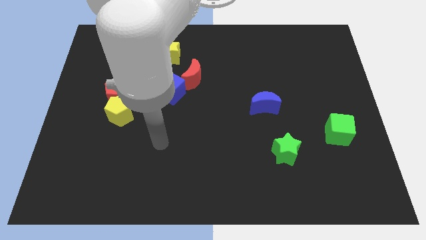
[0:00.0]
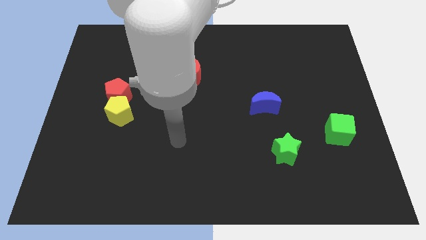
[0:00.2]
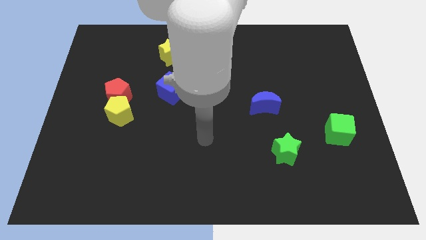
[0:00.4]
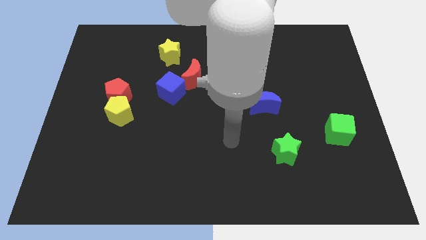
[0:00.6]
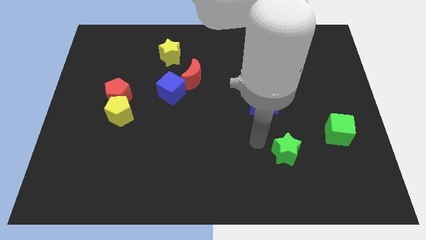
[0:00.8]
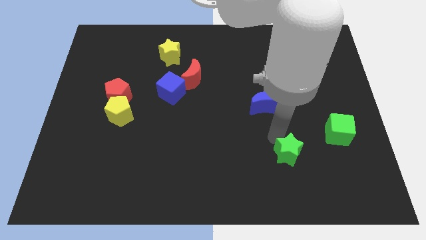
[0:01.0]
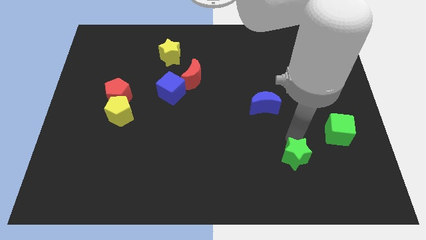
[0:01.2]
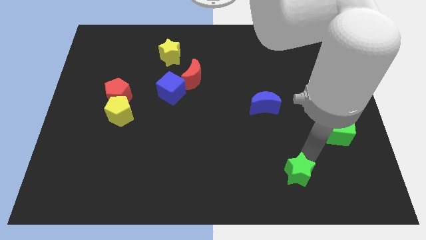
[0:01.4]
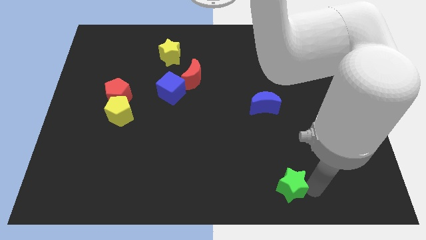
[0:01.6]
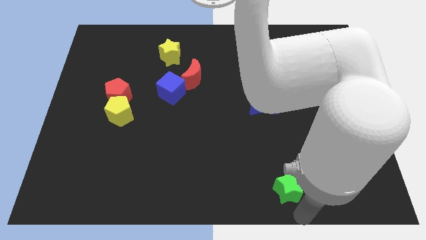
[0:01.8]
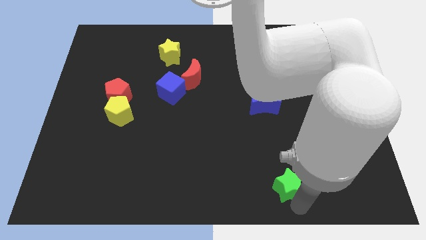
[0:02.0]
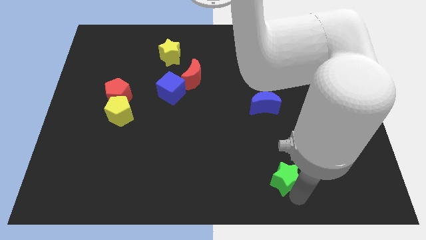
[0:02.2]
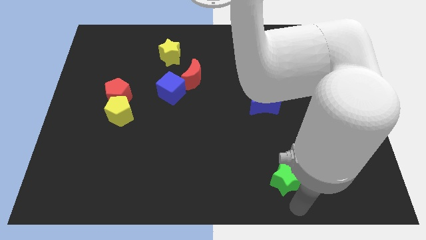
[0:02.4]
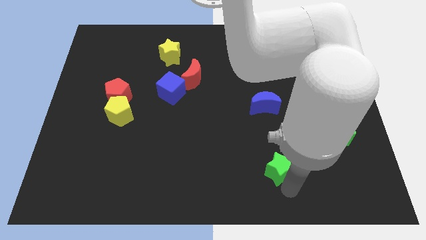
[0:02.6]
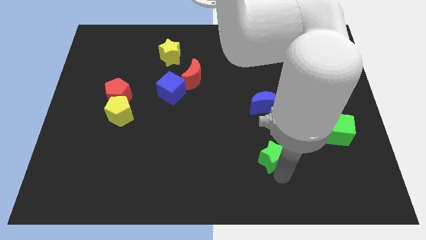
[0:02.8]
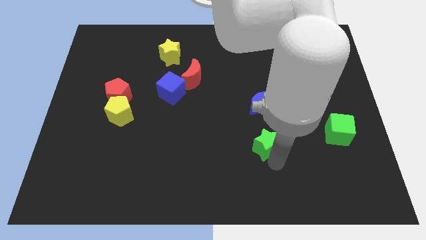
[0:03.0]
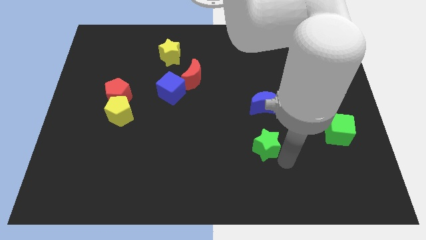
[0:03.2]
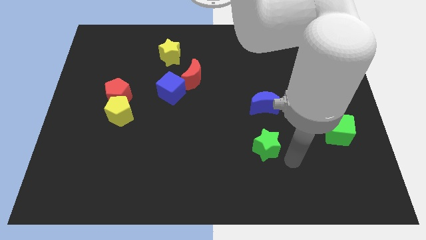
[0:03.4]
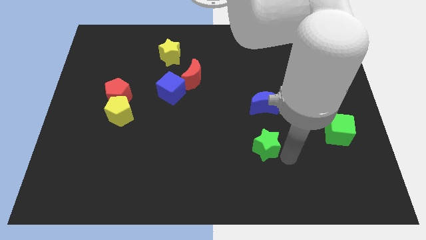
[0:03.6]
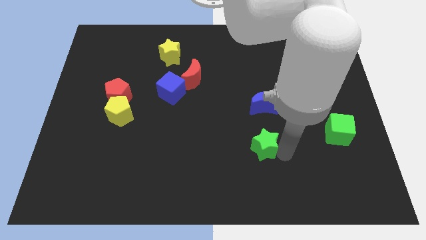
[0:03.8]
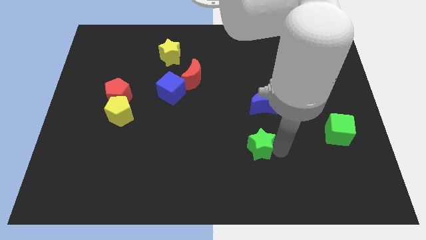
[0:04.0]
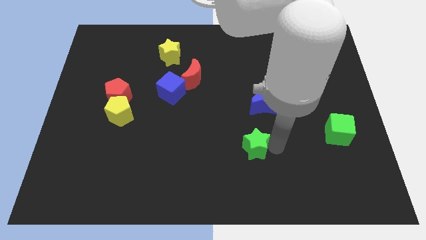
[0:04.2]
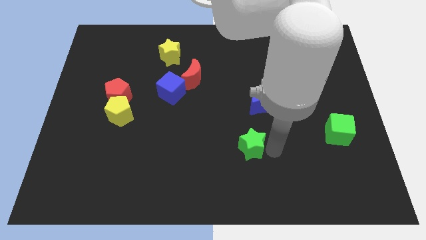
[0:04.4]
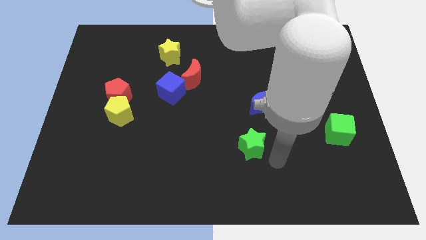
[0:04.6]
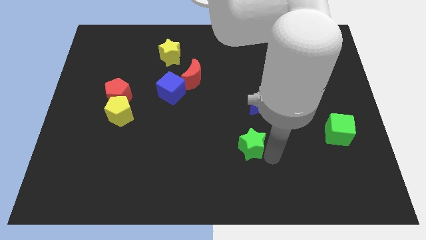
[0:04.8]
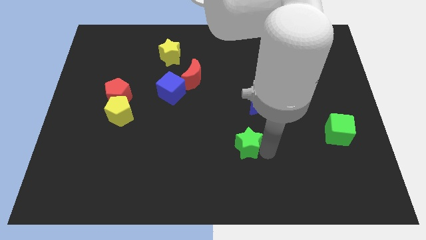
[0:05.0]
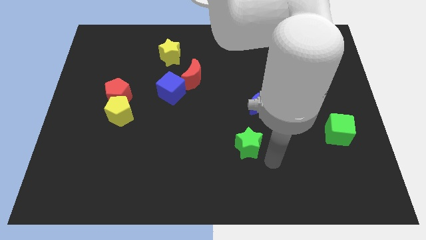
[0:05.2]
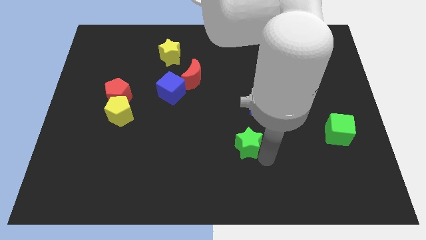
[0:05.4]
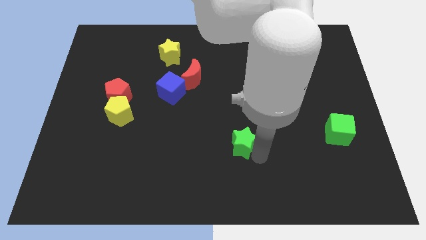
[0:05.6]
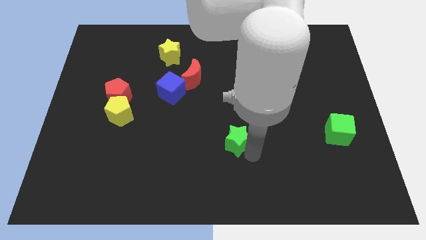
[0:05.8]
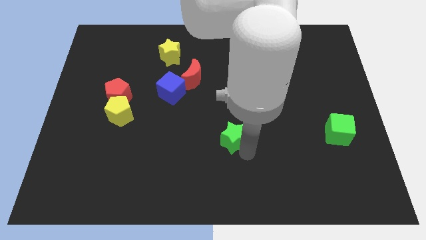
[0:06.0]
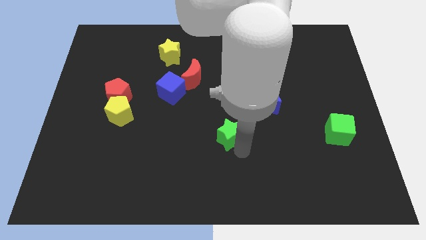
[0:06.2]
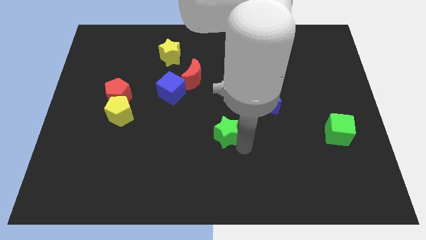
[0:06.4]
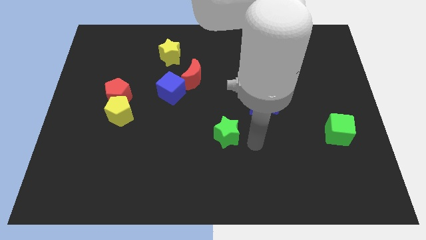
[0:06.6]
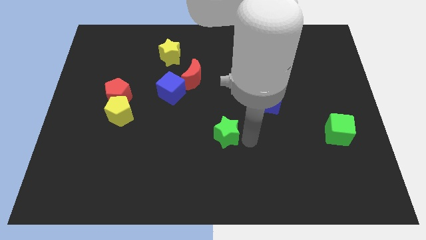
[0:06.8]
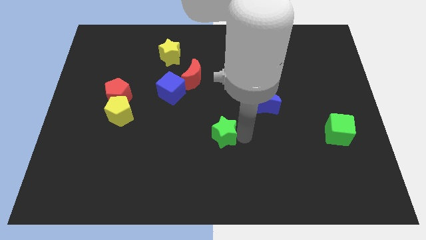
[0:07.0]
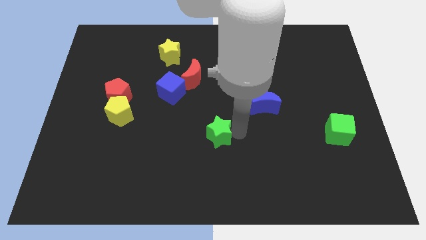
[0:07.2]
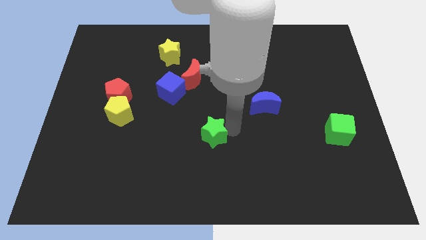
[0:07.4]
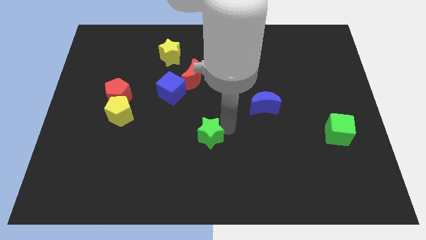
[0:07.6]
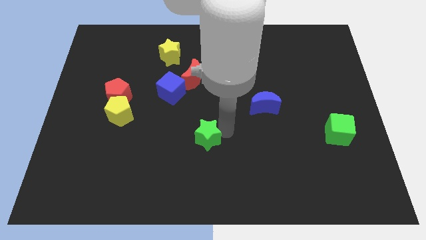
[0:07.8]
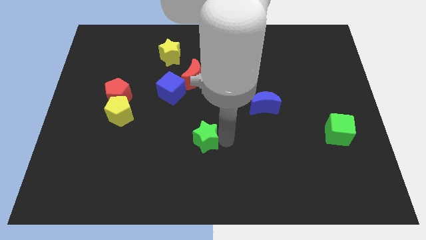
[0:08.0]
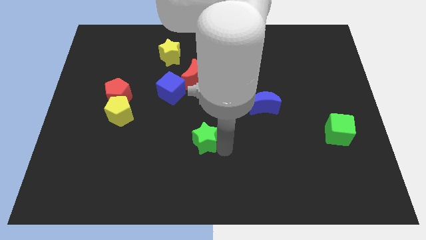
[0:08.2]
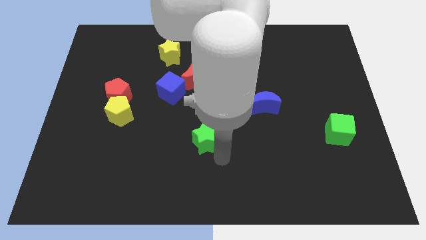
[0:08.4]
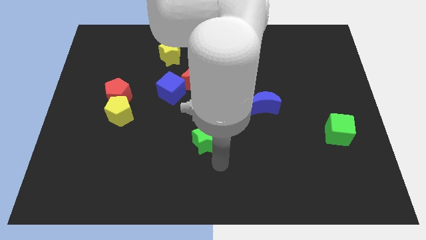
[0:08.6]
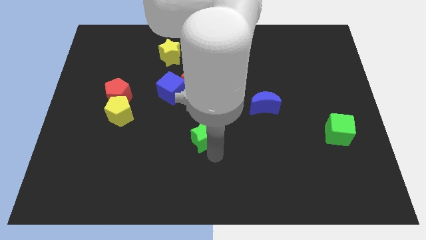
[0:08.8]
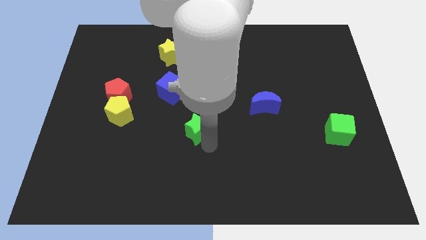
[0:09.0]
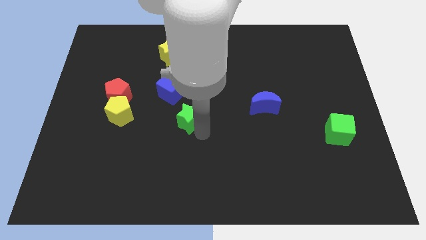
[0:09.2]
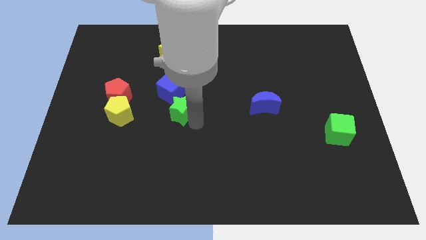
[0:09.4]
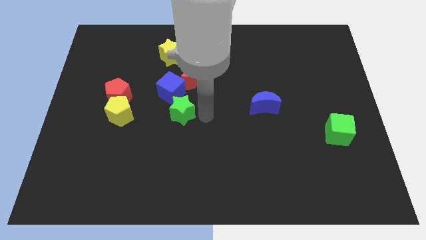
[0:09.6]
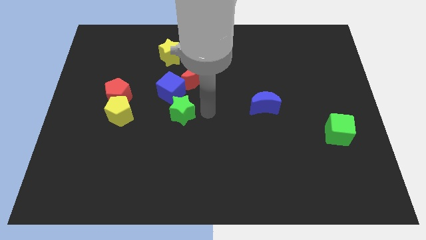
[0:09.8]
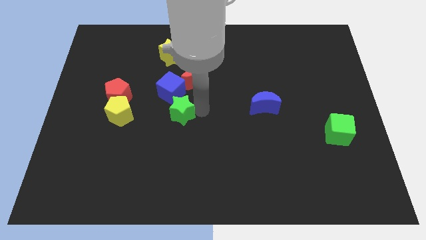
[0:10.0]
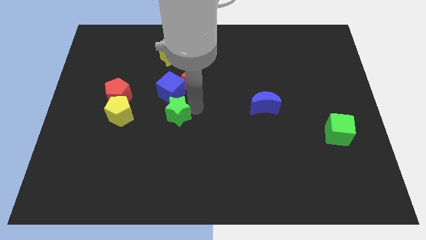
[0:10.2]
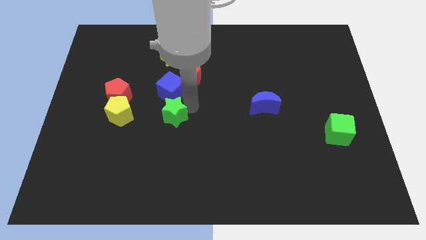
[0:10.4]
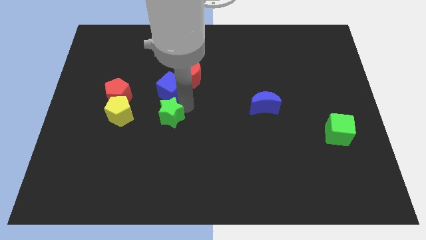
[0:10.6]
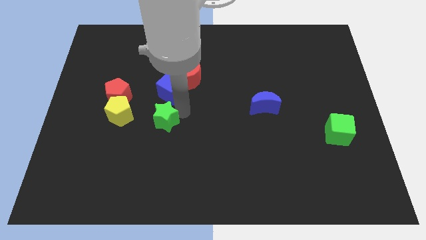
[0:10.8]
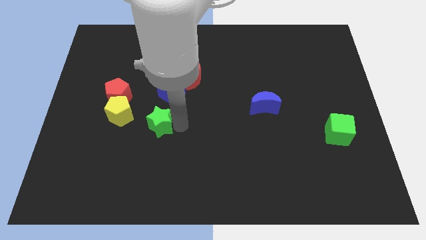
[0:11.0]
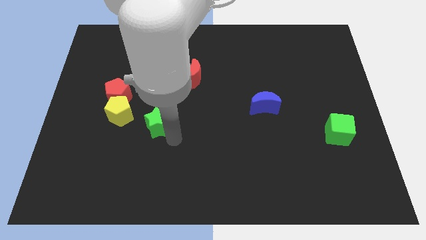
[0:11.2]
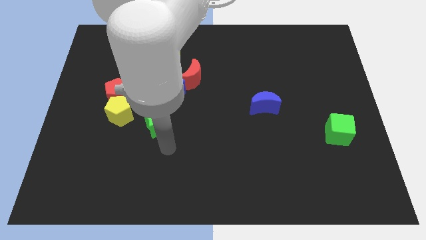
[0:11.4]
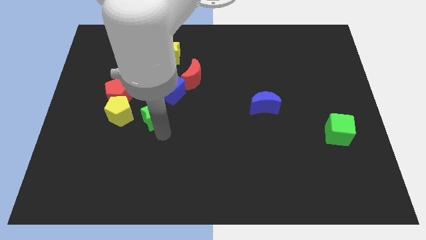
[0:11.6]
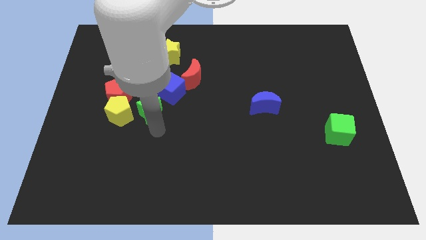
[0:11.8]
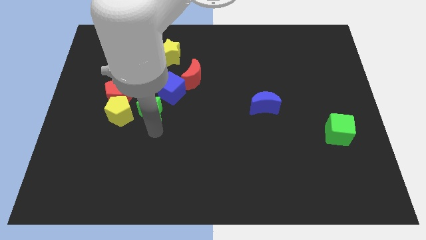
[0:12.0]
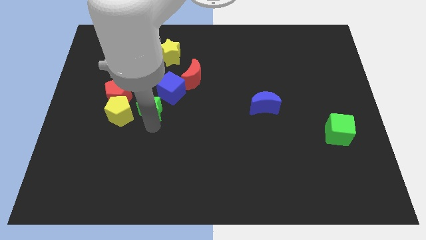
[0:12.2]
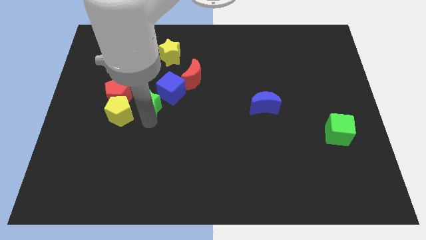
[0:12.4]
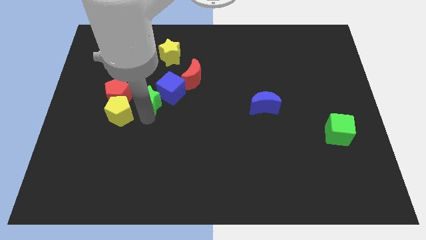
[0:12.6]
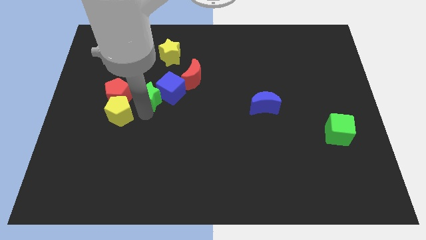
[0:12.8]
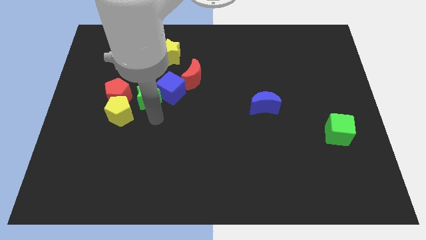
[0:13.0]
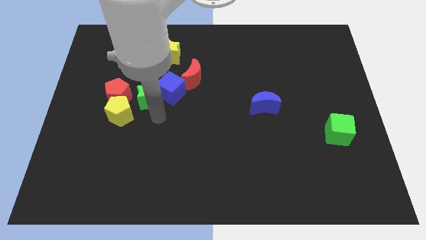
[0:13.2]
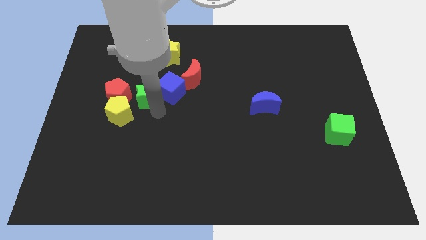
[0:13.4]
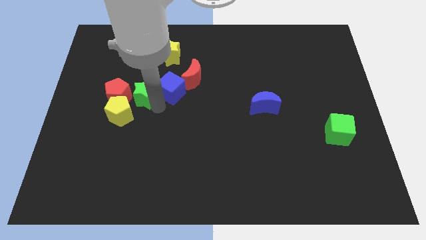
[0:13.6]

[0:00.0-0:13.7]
push the green star diagonally up and to the right of the red pentagon

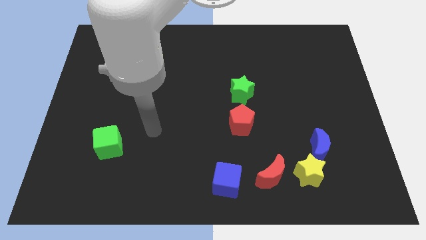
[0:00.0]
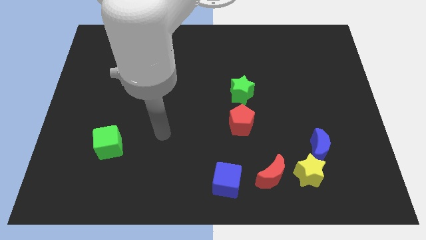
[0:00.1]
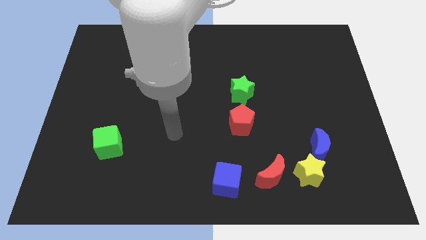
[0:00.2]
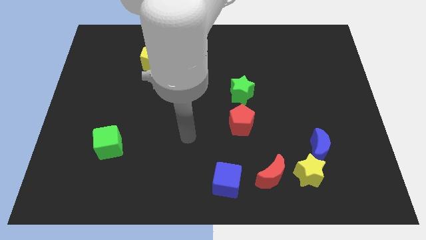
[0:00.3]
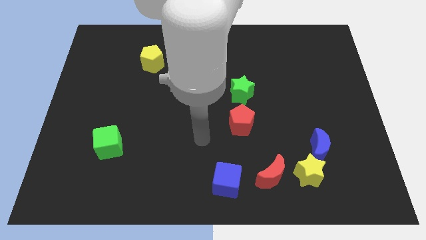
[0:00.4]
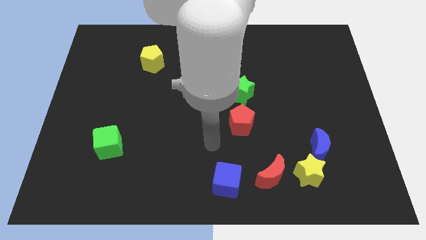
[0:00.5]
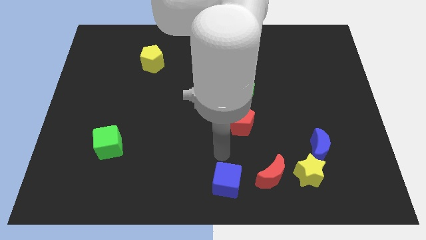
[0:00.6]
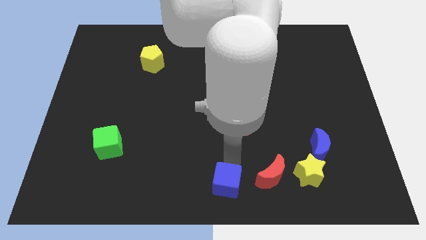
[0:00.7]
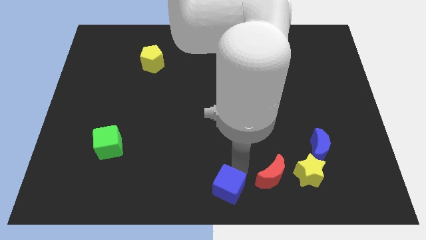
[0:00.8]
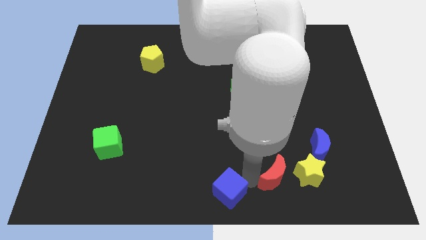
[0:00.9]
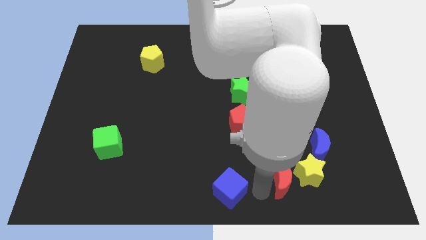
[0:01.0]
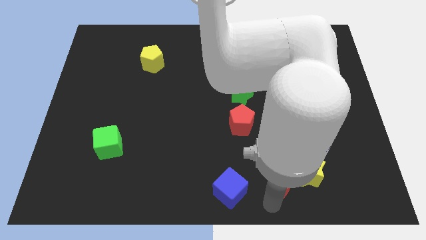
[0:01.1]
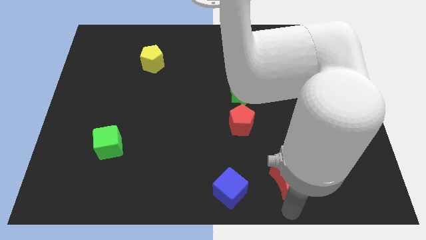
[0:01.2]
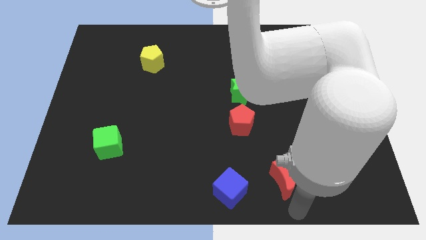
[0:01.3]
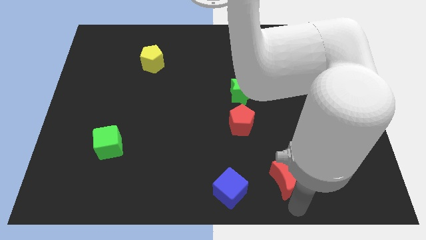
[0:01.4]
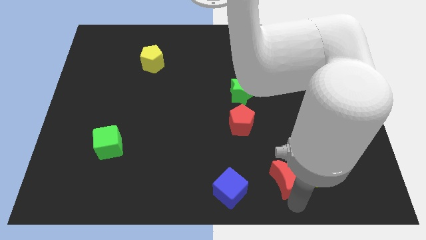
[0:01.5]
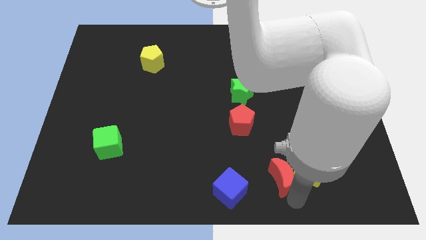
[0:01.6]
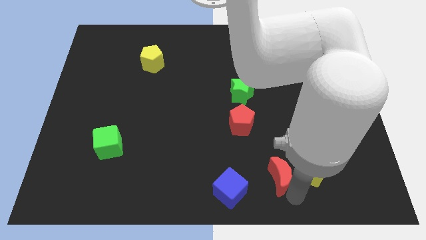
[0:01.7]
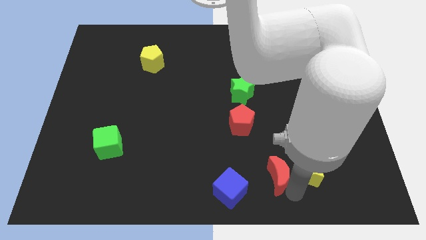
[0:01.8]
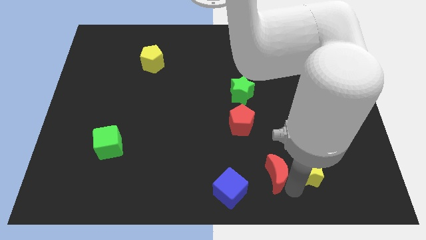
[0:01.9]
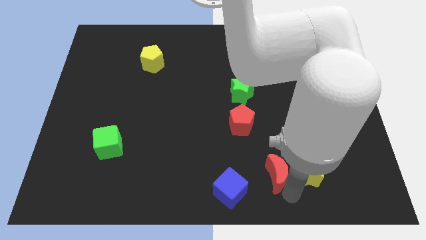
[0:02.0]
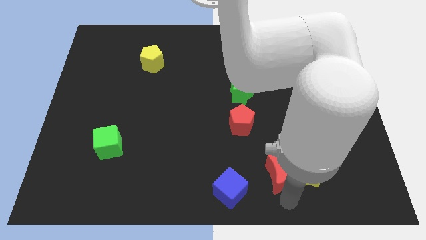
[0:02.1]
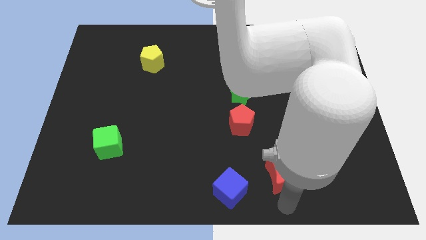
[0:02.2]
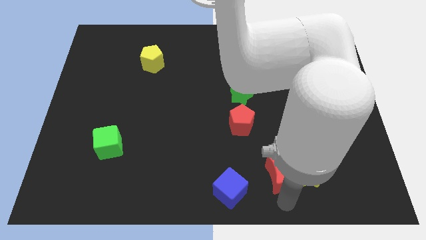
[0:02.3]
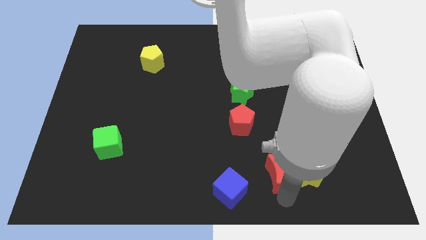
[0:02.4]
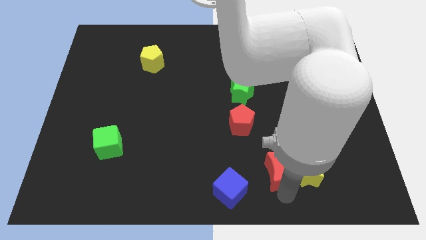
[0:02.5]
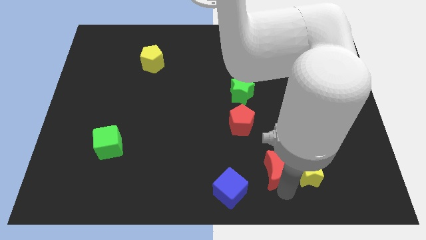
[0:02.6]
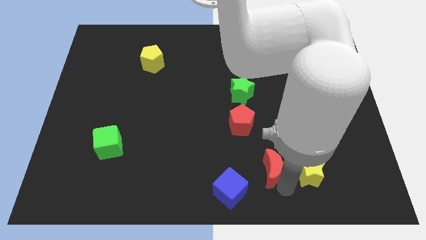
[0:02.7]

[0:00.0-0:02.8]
slide the red moon to the left side of the blue moon
